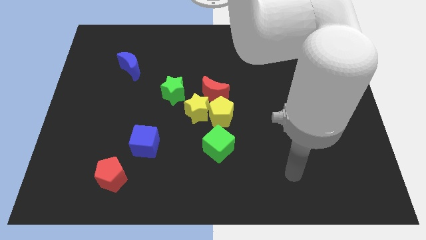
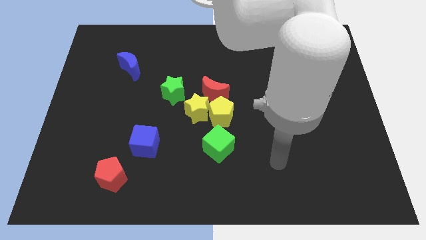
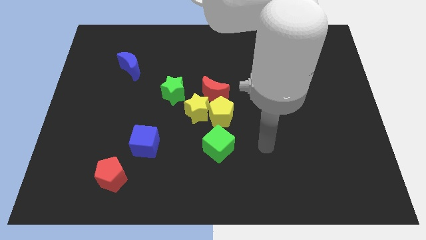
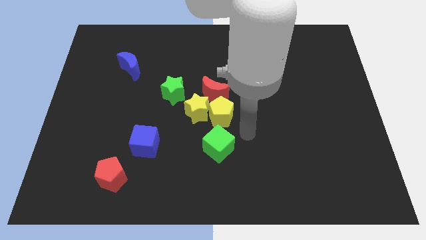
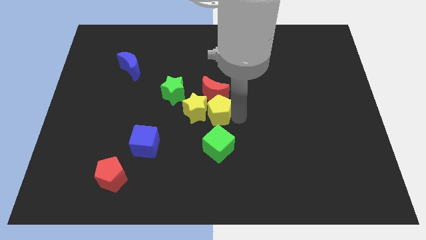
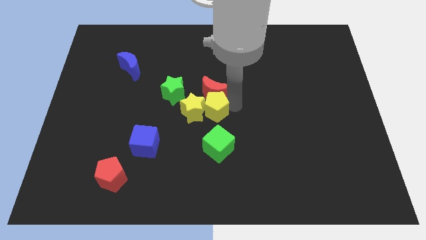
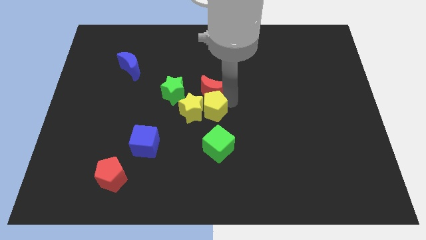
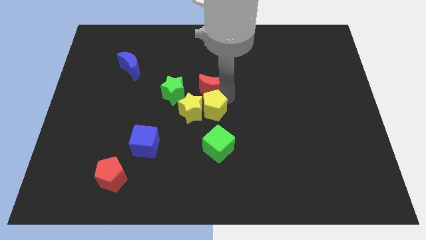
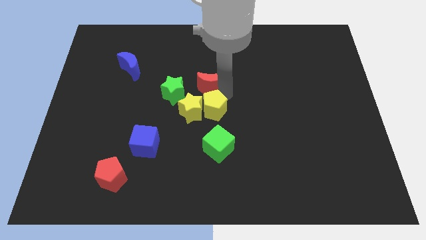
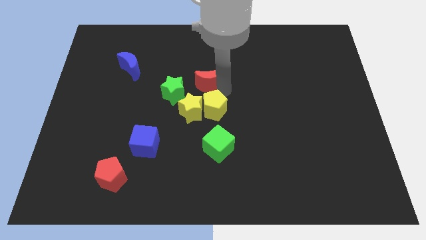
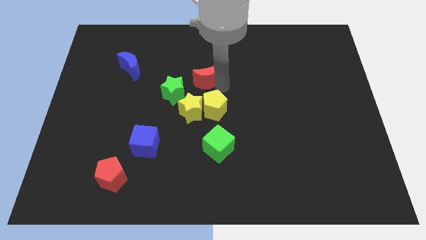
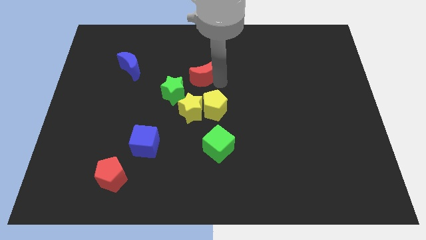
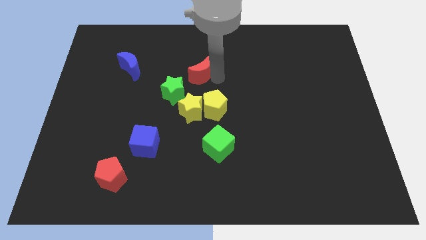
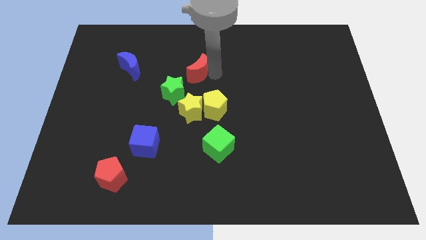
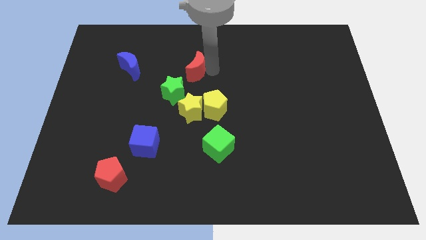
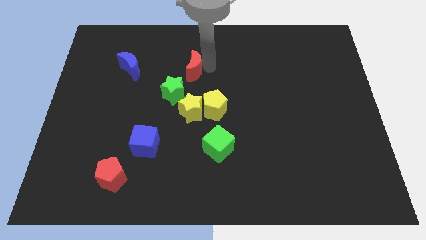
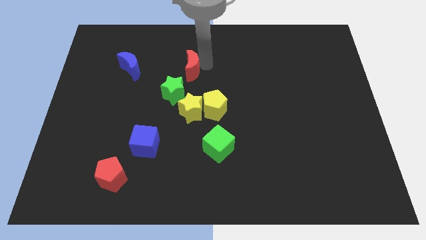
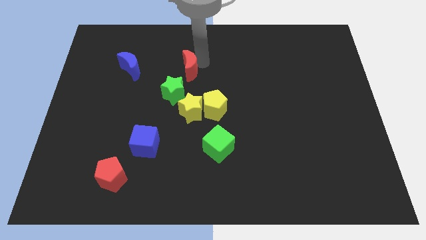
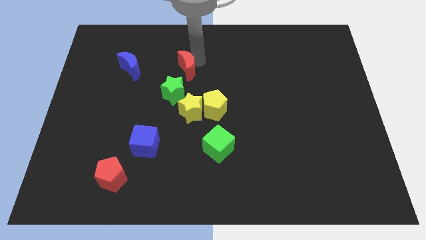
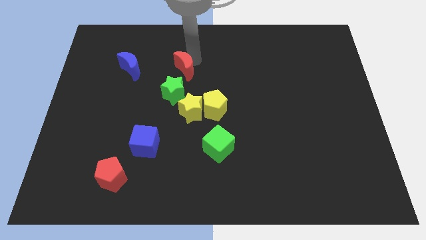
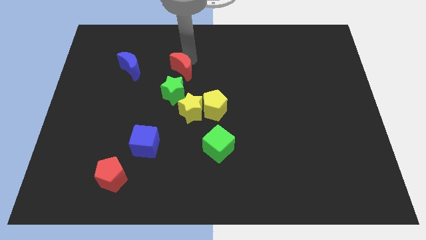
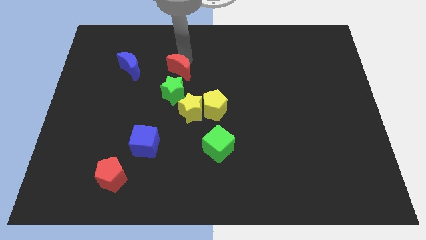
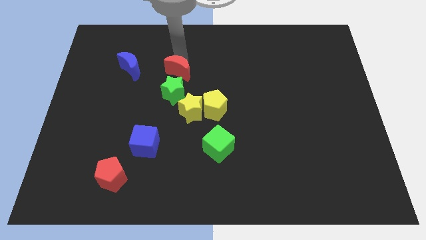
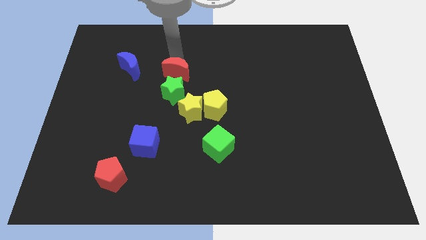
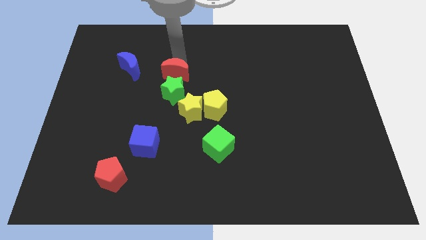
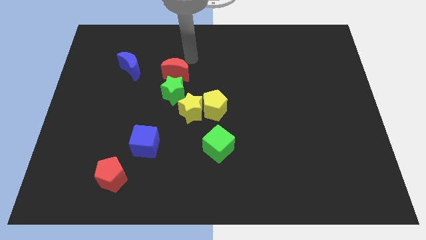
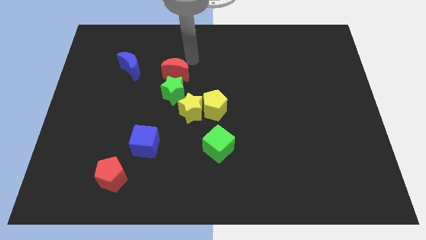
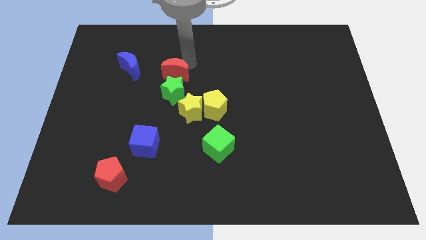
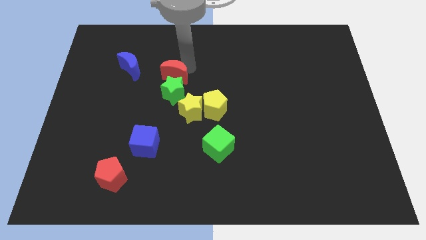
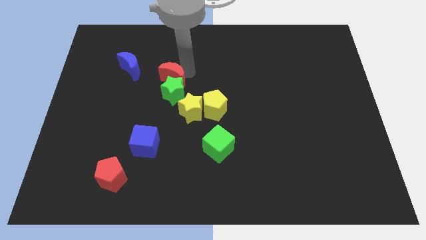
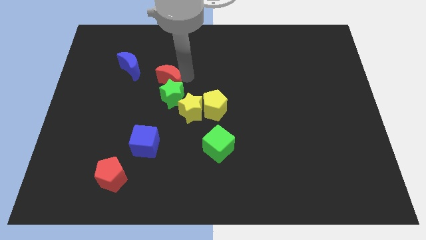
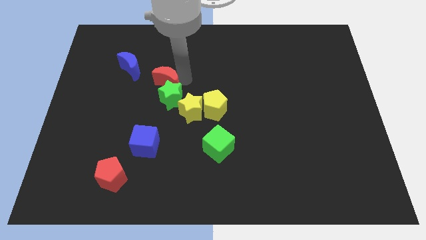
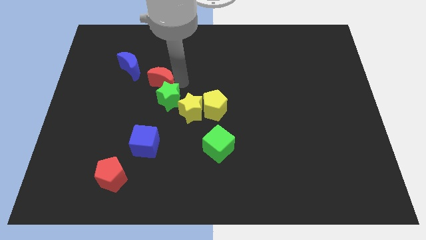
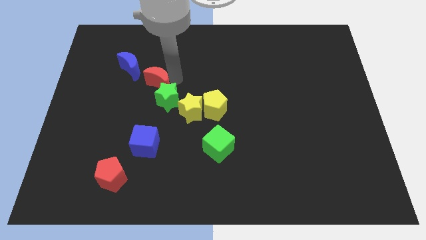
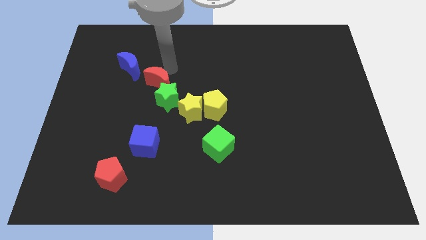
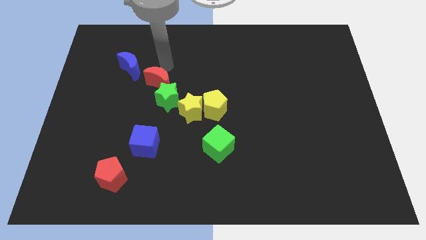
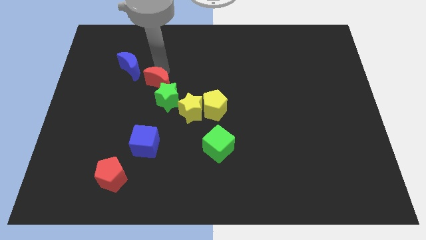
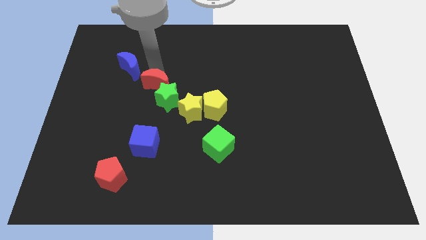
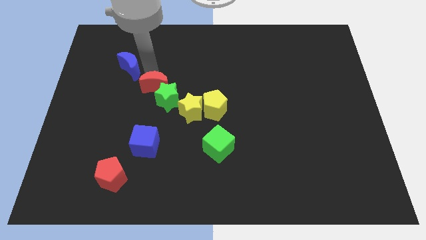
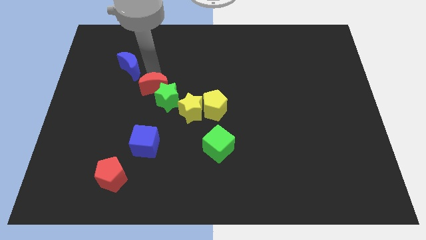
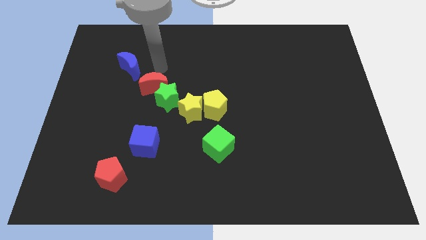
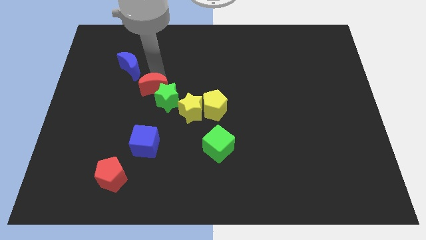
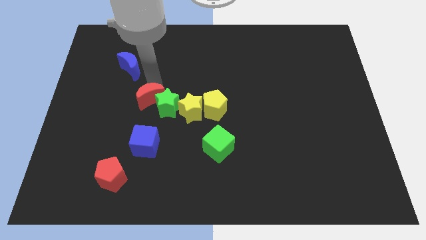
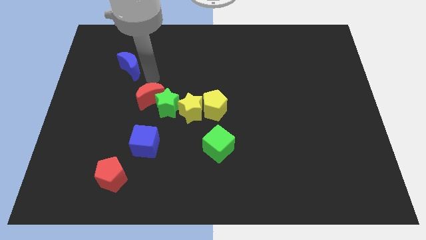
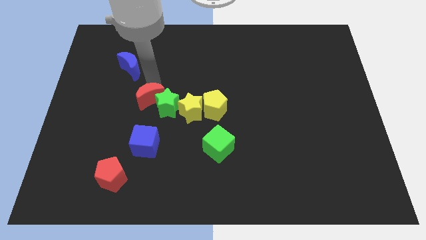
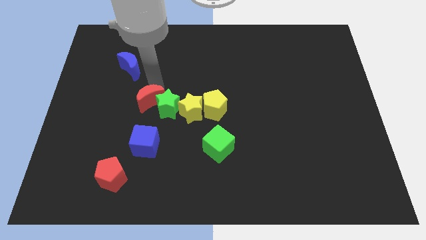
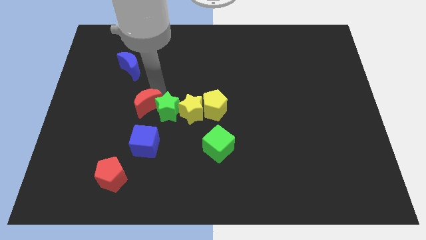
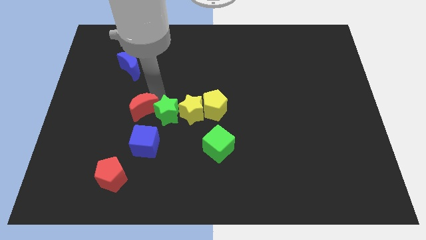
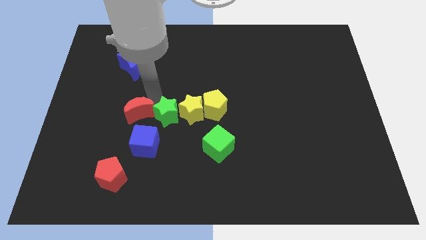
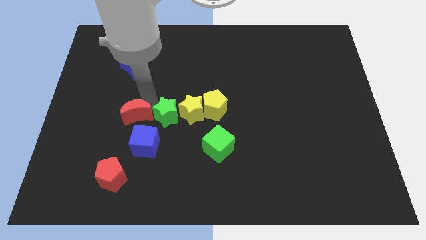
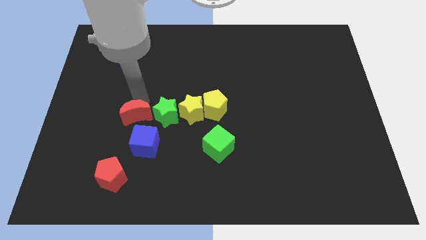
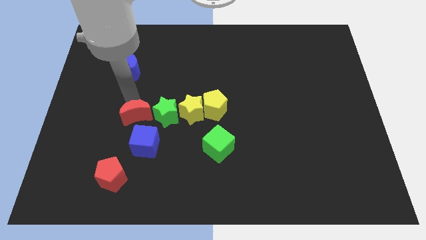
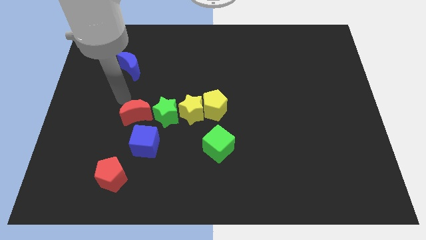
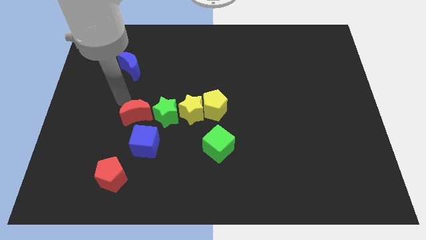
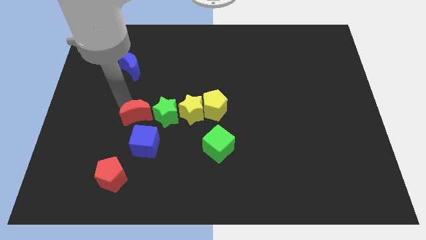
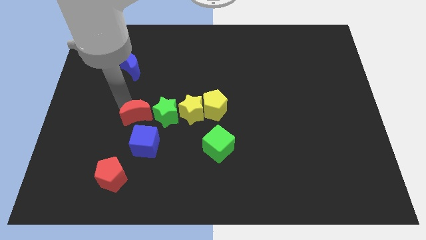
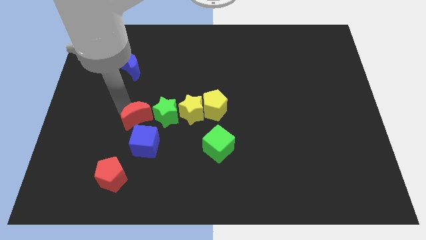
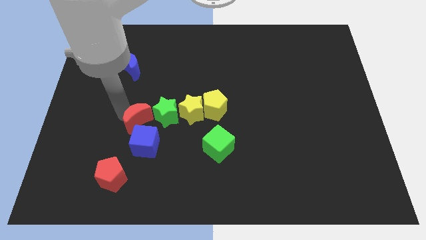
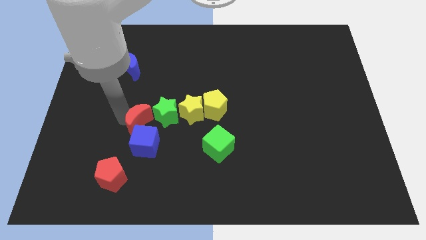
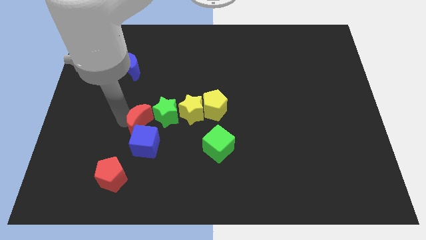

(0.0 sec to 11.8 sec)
move the red moon towards the blue cube

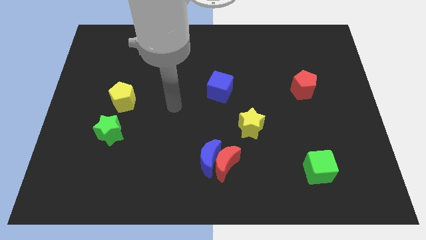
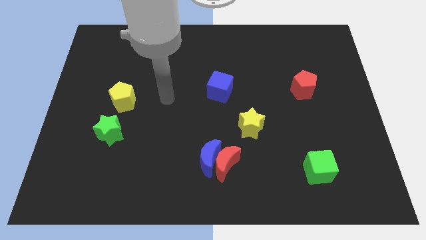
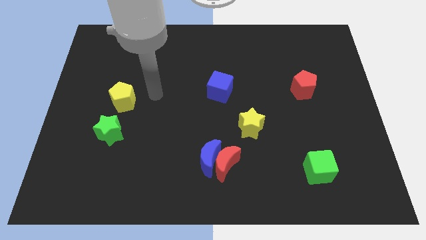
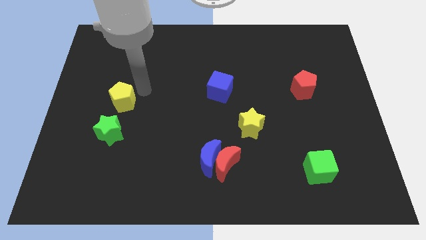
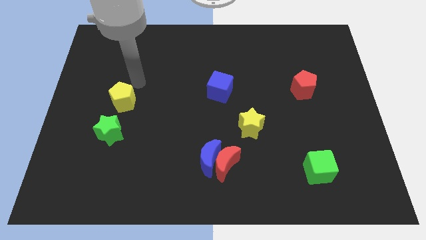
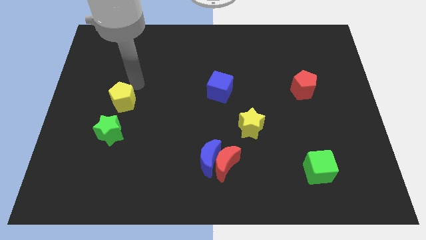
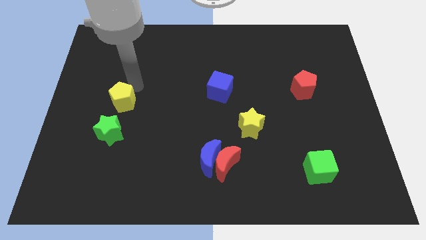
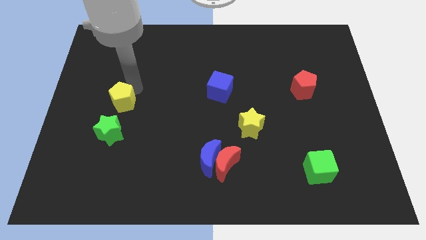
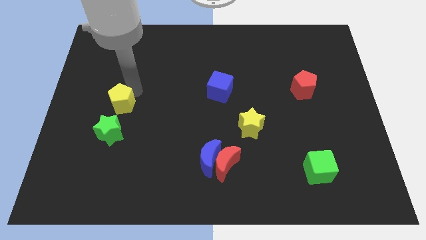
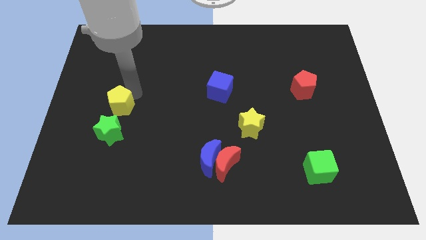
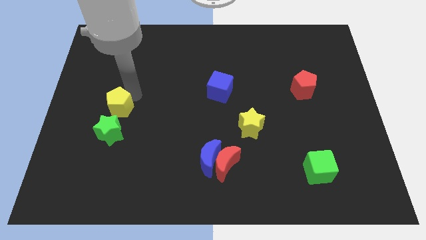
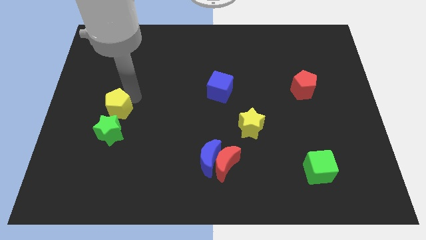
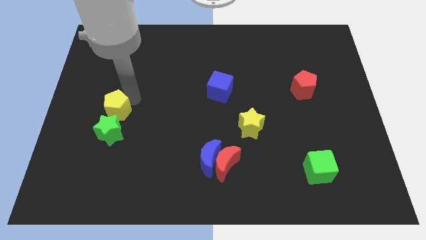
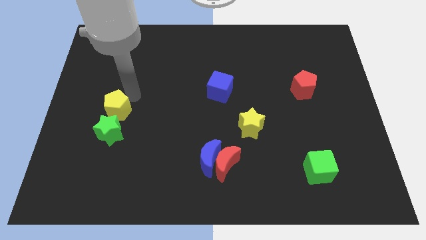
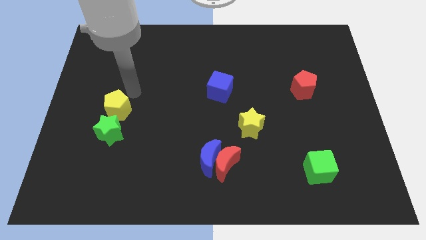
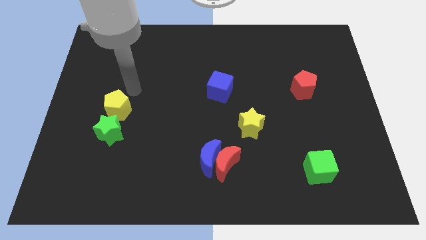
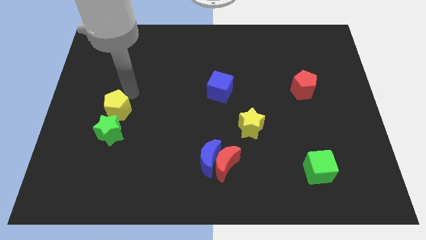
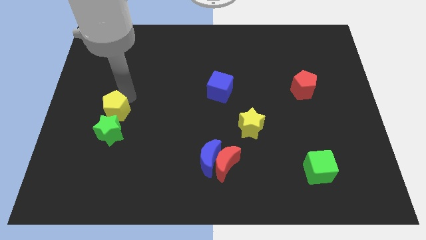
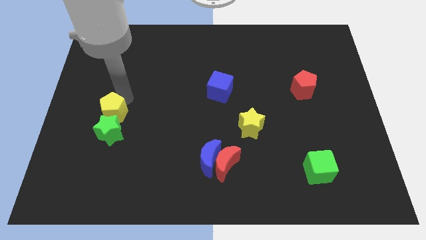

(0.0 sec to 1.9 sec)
move the yellow pentagon towards the green star
